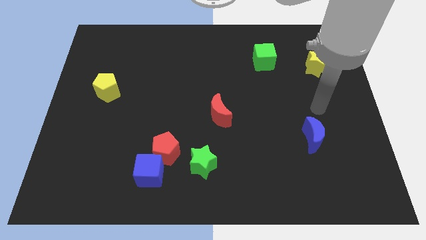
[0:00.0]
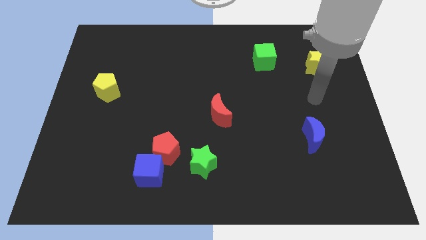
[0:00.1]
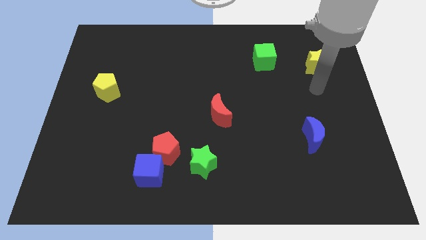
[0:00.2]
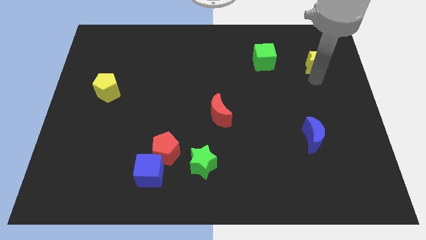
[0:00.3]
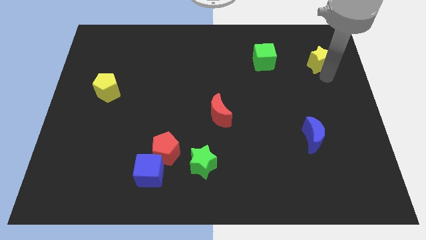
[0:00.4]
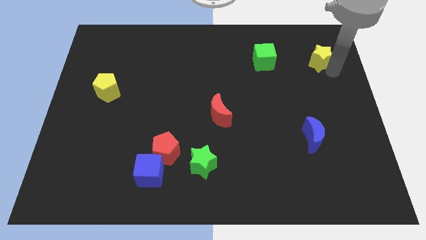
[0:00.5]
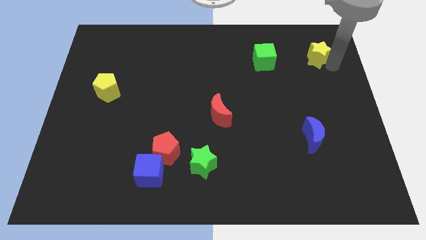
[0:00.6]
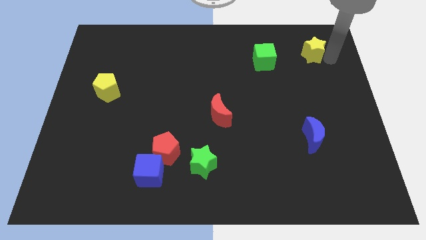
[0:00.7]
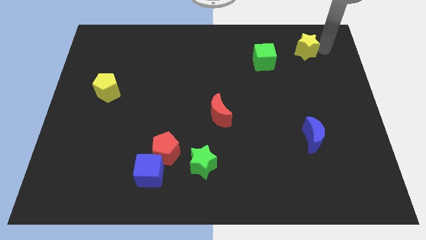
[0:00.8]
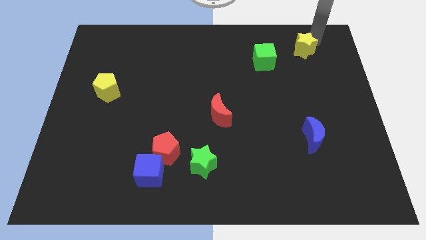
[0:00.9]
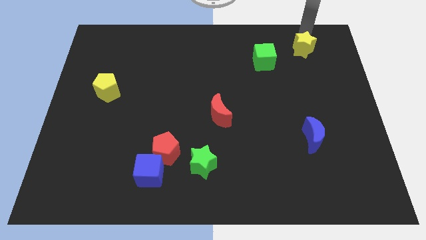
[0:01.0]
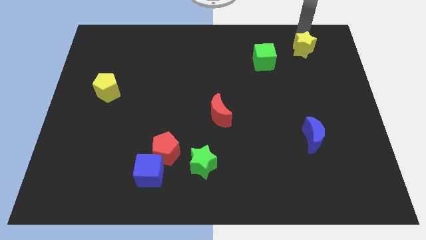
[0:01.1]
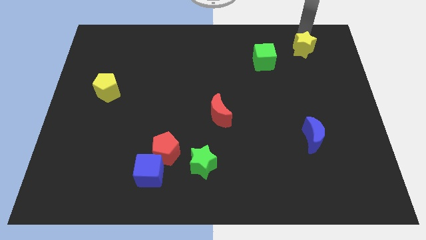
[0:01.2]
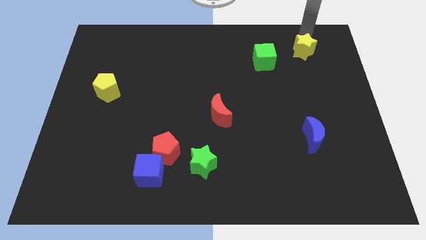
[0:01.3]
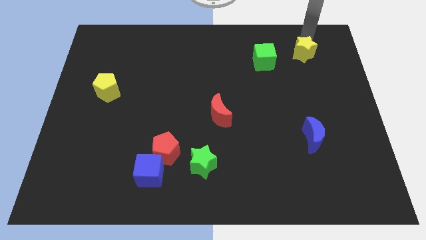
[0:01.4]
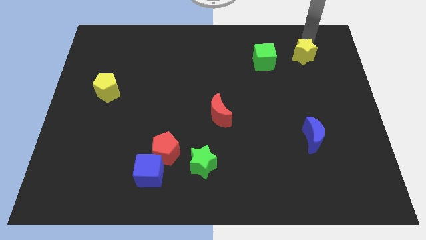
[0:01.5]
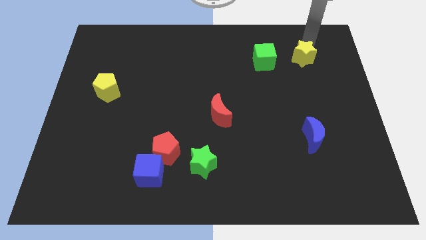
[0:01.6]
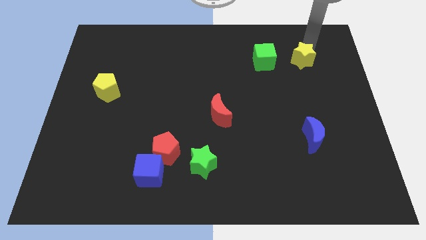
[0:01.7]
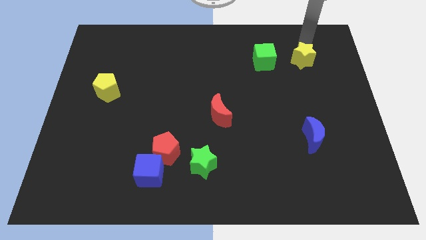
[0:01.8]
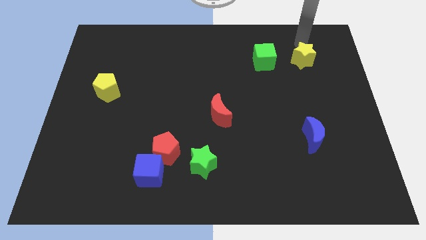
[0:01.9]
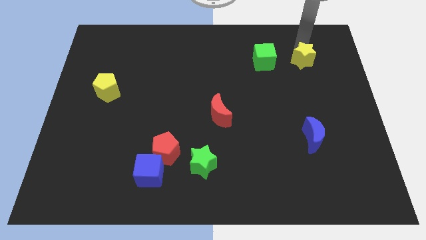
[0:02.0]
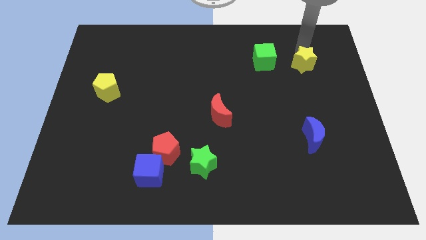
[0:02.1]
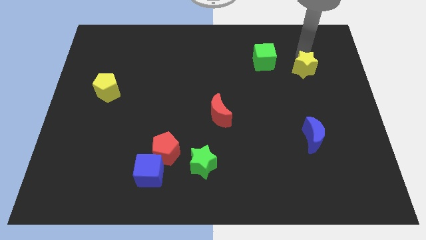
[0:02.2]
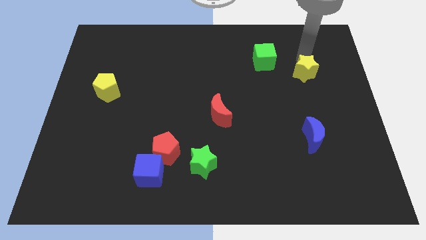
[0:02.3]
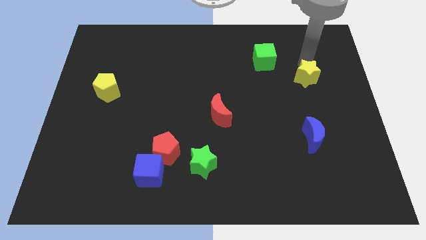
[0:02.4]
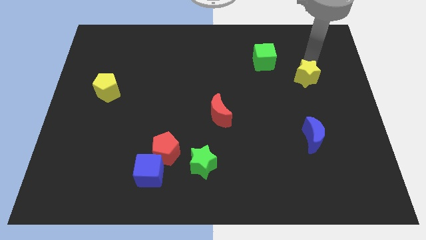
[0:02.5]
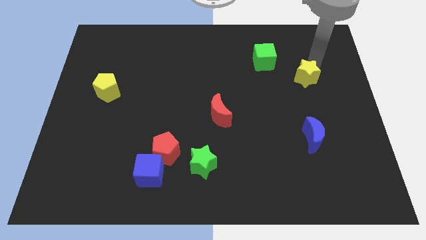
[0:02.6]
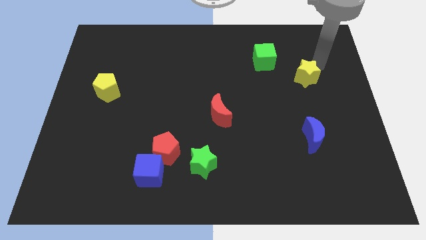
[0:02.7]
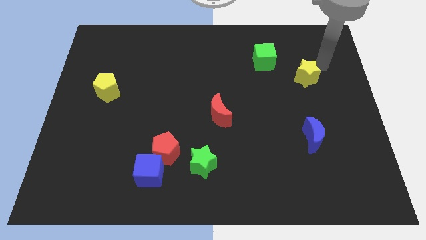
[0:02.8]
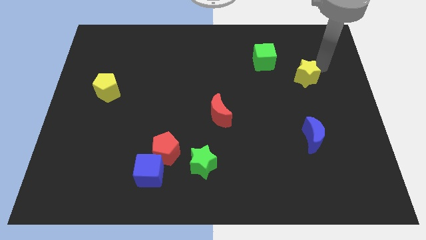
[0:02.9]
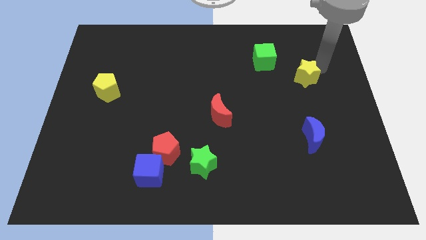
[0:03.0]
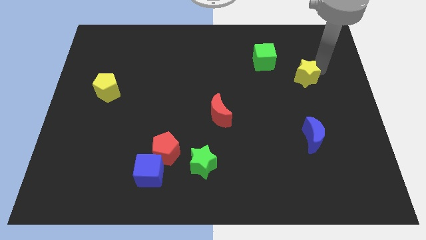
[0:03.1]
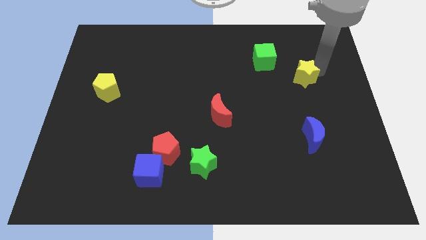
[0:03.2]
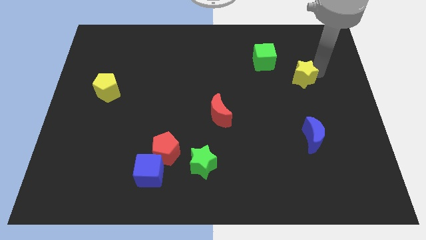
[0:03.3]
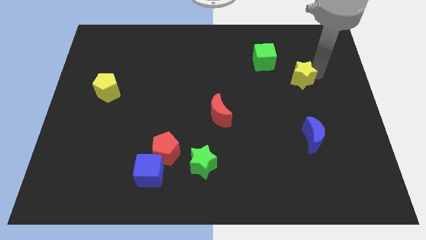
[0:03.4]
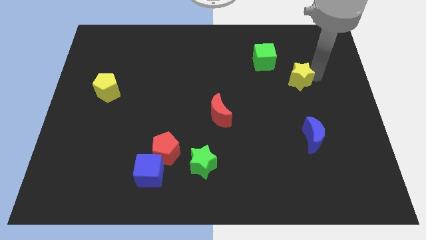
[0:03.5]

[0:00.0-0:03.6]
slide the yellow star diagonally downwards and left a little

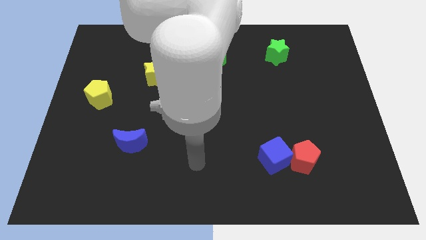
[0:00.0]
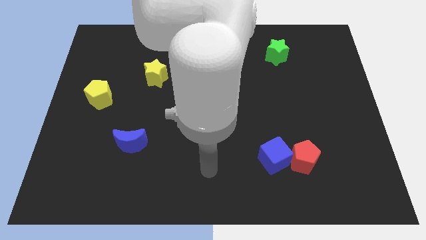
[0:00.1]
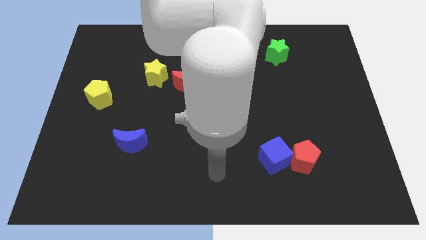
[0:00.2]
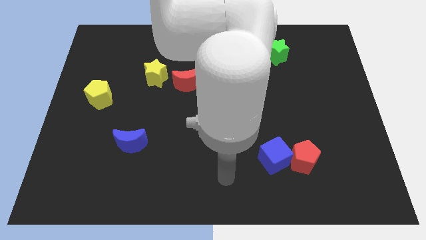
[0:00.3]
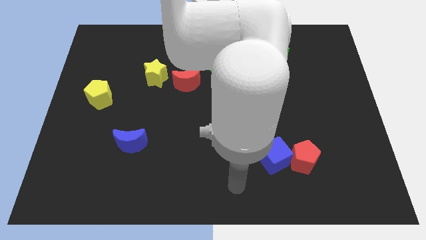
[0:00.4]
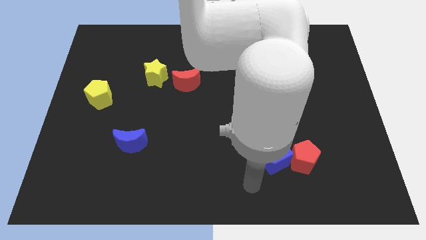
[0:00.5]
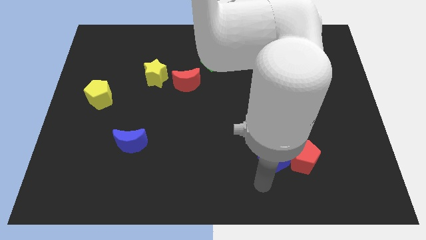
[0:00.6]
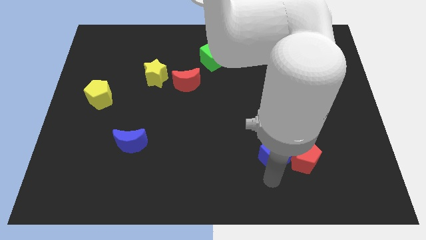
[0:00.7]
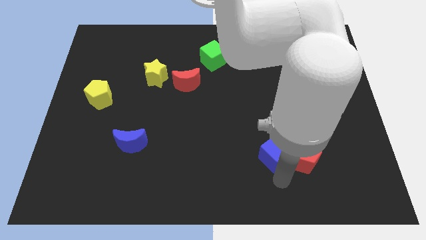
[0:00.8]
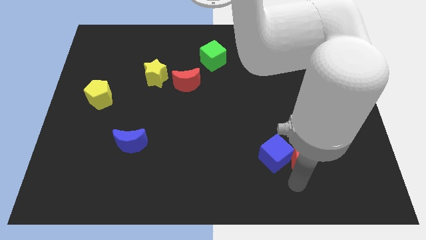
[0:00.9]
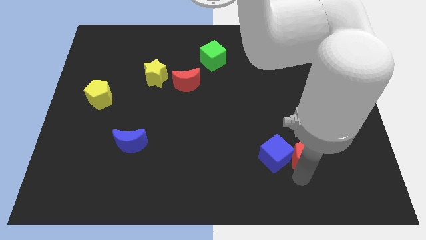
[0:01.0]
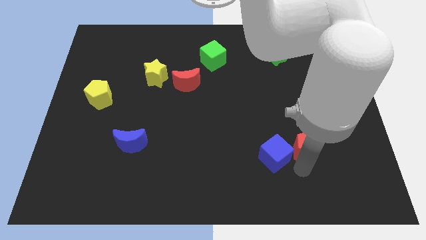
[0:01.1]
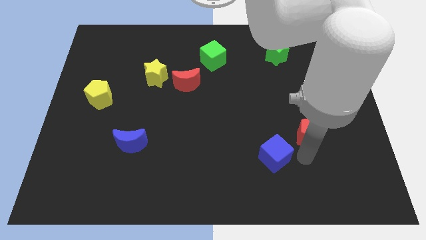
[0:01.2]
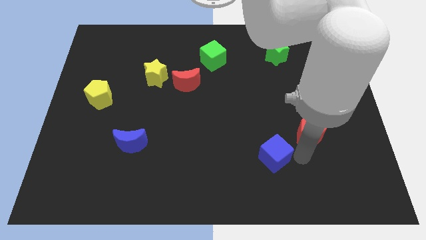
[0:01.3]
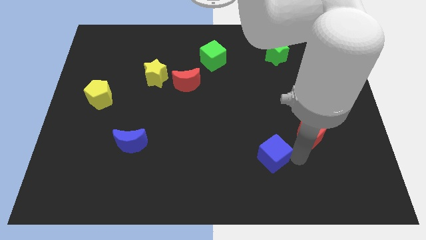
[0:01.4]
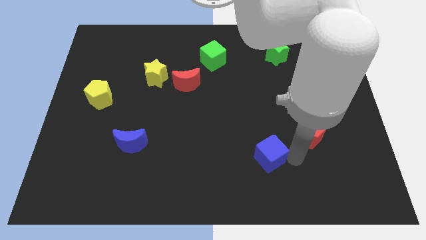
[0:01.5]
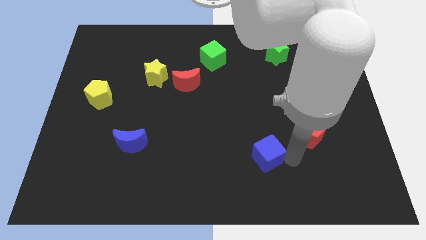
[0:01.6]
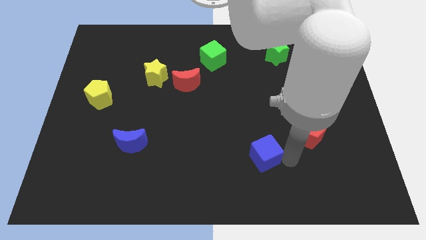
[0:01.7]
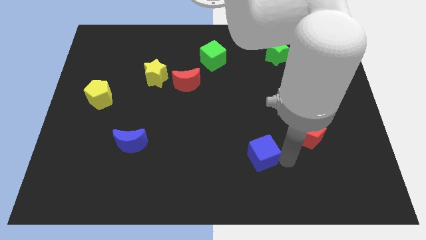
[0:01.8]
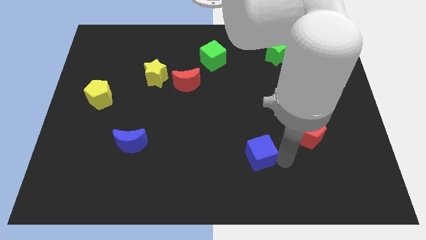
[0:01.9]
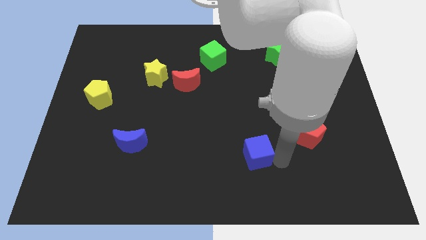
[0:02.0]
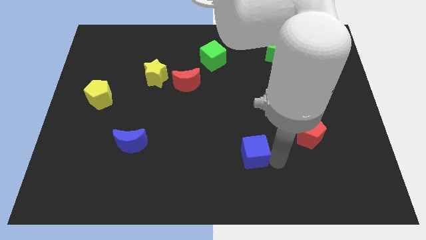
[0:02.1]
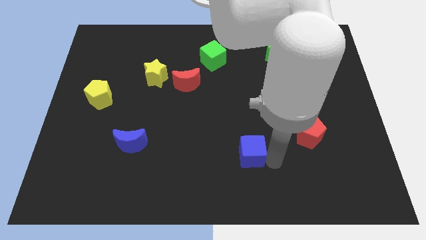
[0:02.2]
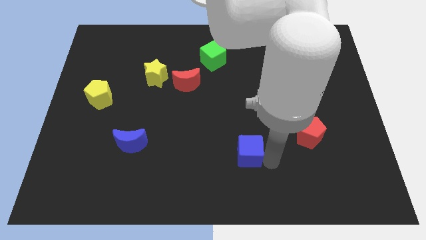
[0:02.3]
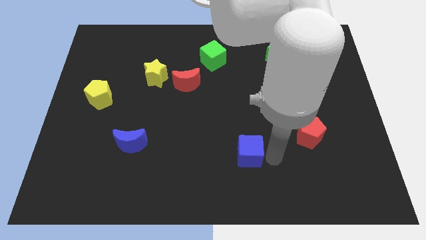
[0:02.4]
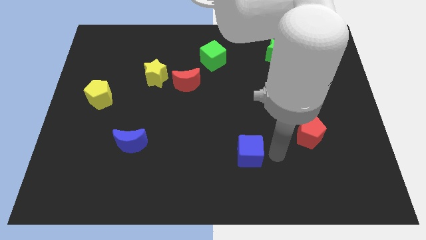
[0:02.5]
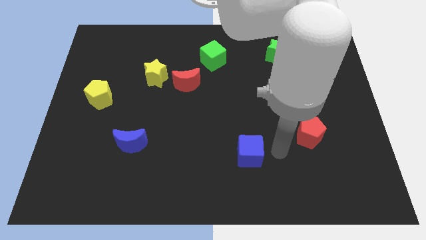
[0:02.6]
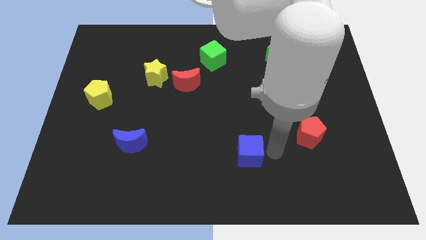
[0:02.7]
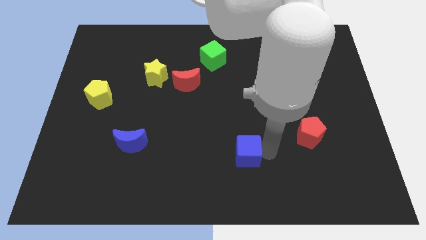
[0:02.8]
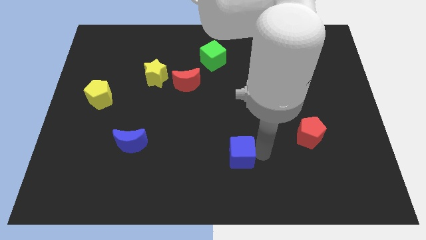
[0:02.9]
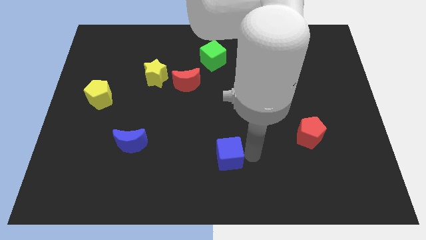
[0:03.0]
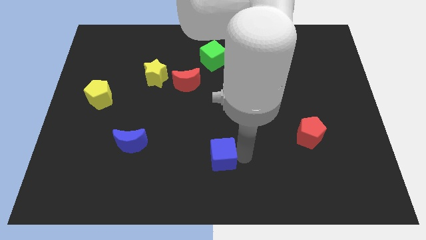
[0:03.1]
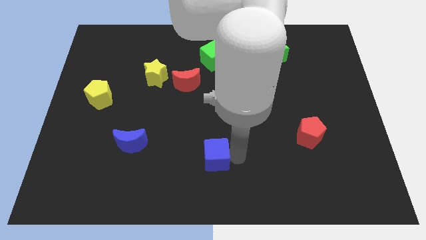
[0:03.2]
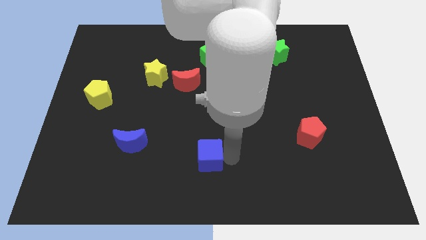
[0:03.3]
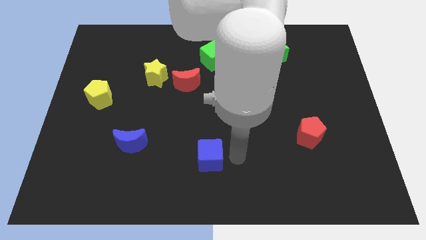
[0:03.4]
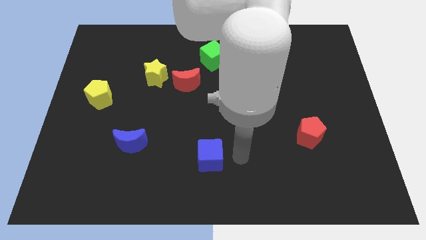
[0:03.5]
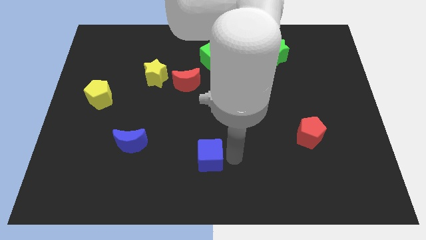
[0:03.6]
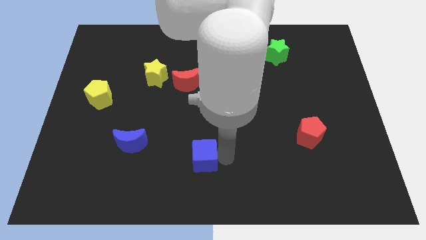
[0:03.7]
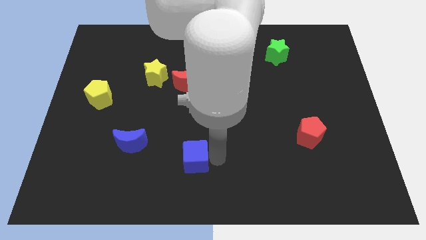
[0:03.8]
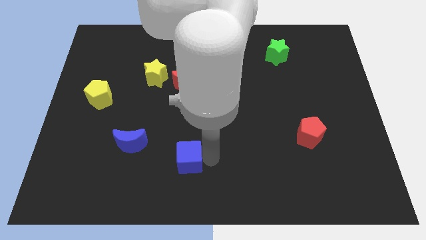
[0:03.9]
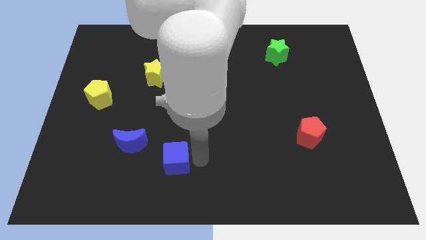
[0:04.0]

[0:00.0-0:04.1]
push the blue cube left
